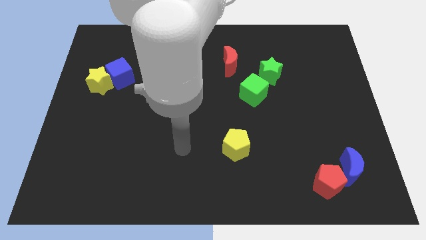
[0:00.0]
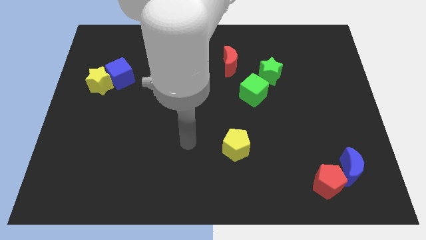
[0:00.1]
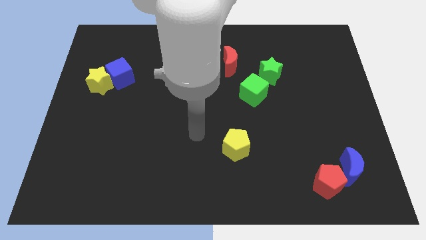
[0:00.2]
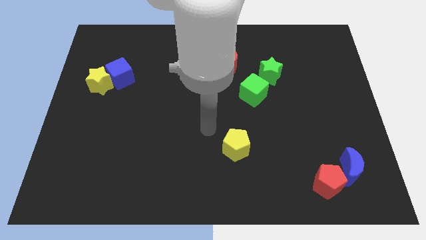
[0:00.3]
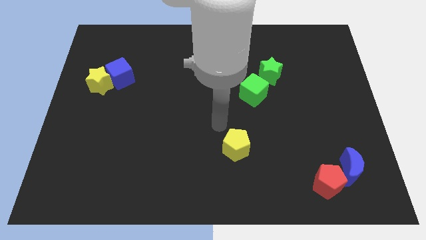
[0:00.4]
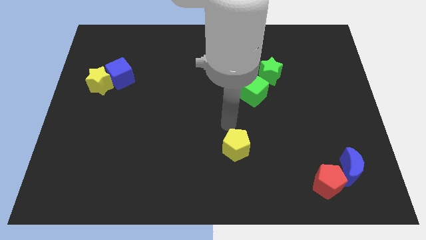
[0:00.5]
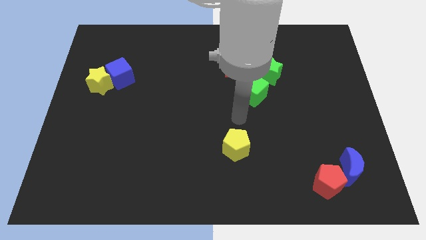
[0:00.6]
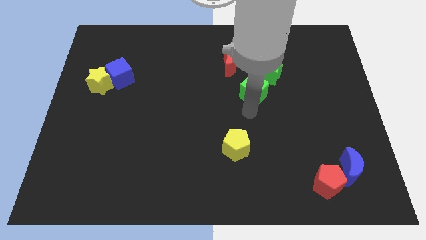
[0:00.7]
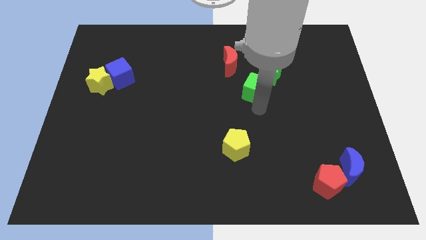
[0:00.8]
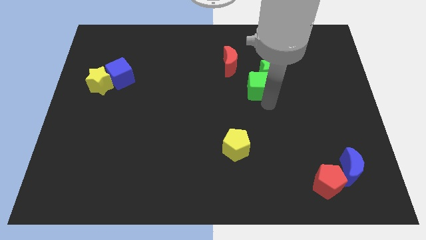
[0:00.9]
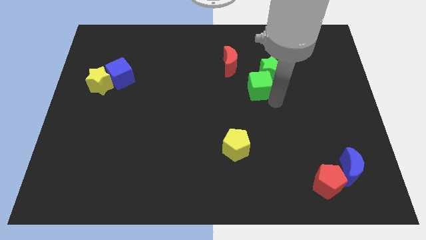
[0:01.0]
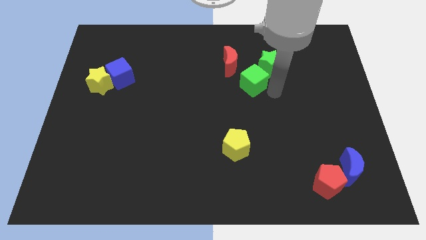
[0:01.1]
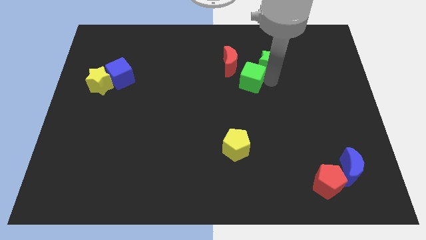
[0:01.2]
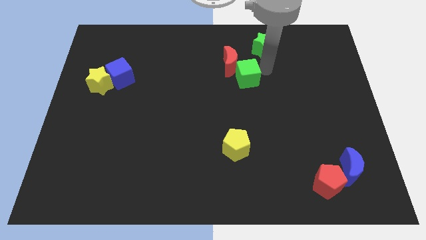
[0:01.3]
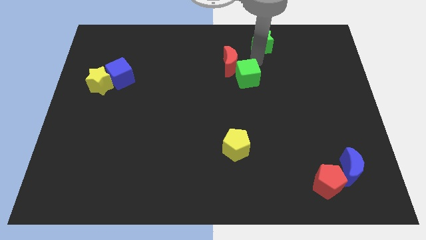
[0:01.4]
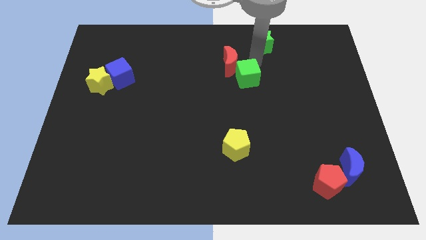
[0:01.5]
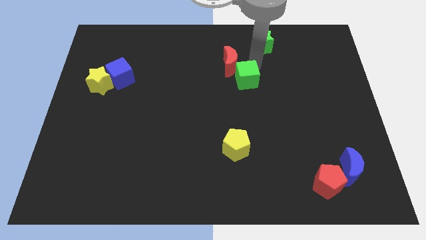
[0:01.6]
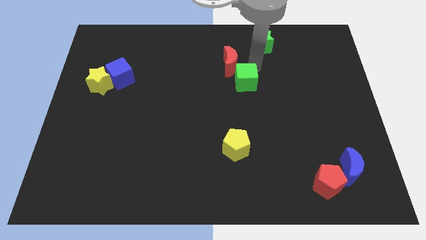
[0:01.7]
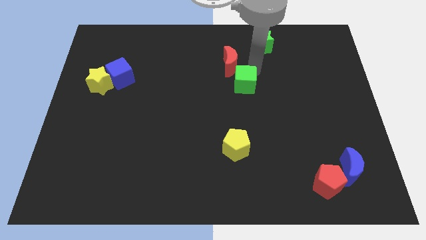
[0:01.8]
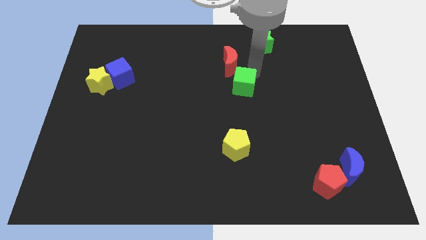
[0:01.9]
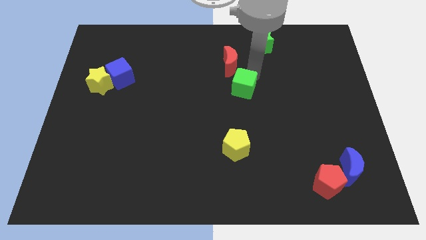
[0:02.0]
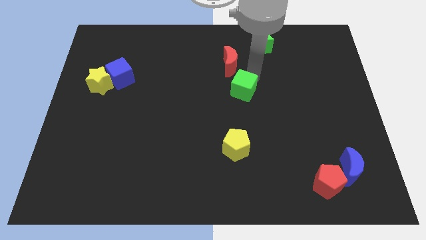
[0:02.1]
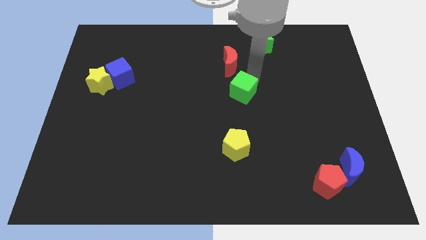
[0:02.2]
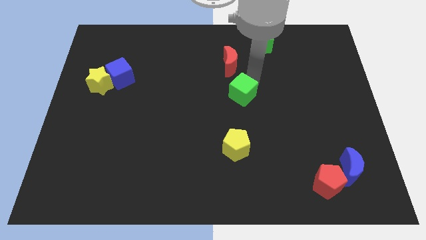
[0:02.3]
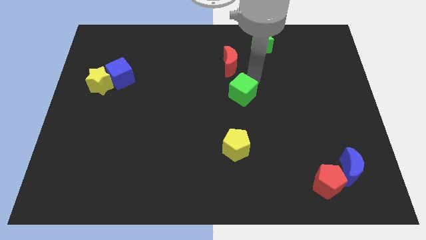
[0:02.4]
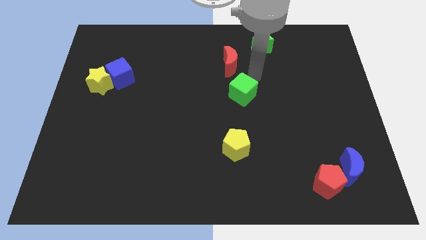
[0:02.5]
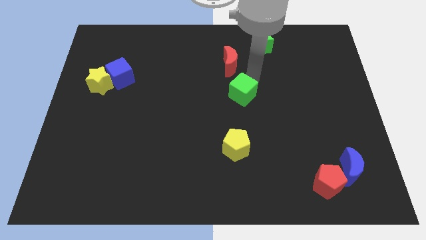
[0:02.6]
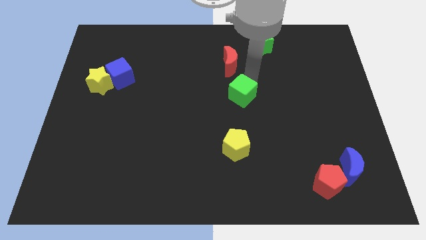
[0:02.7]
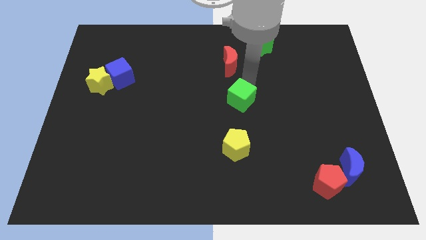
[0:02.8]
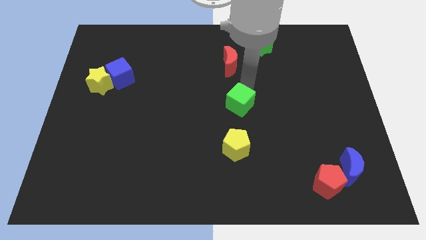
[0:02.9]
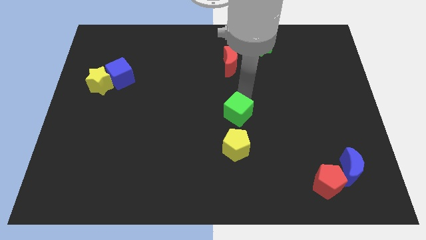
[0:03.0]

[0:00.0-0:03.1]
slightly slide the green cube down and then left

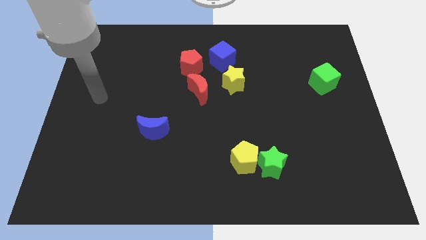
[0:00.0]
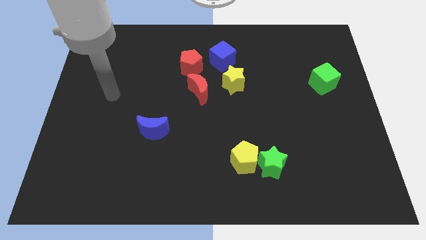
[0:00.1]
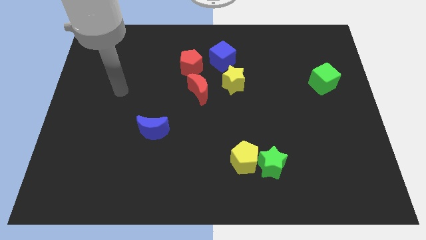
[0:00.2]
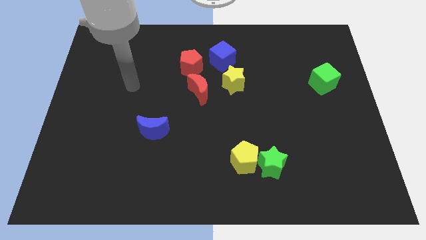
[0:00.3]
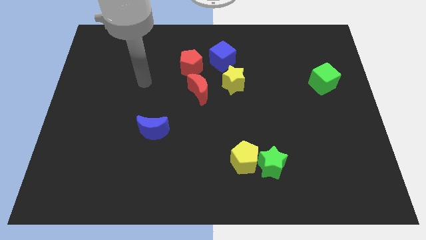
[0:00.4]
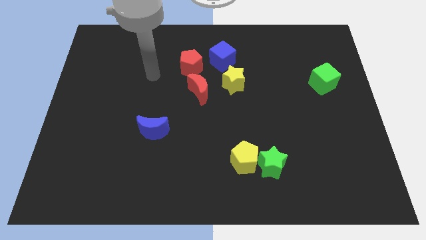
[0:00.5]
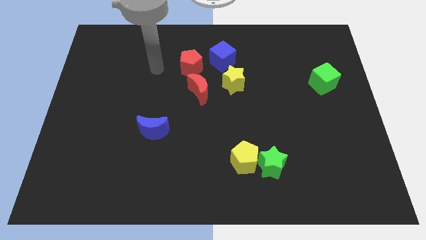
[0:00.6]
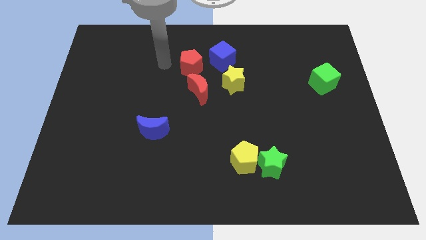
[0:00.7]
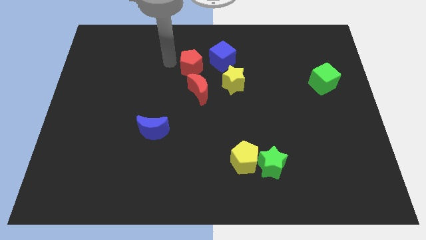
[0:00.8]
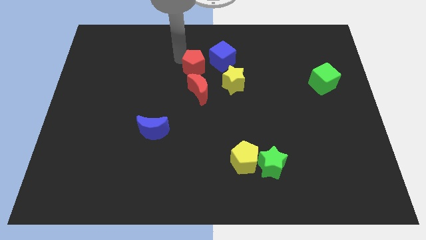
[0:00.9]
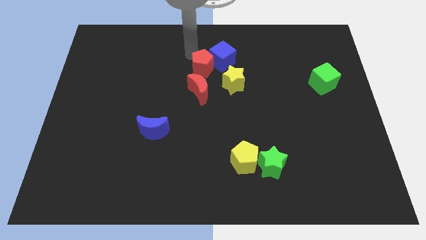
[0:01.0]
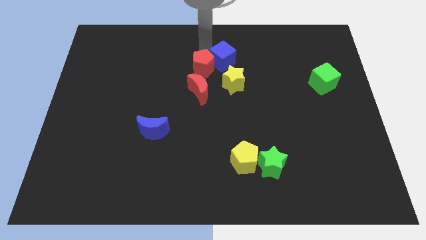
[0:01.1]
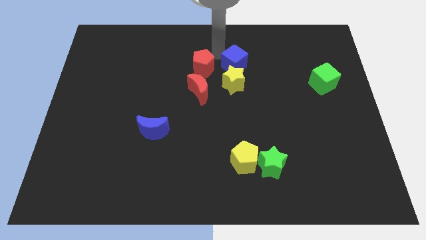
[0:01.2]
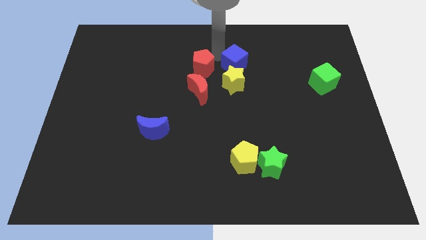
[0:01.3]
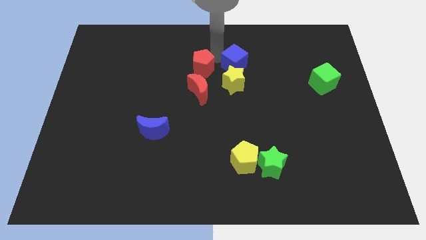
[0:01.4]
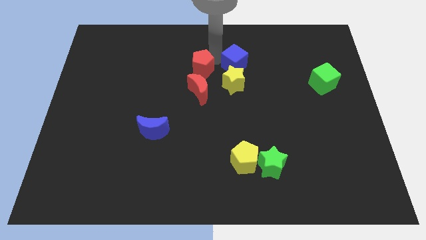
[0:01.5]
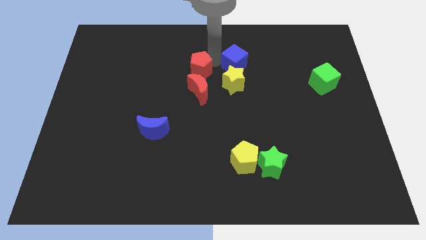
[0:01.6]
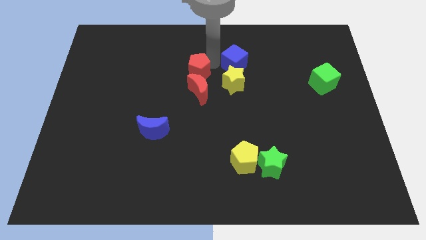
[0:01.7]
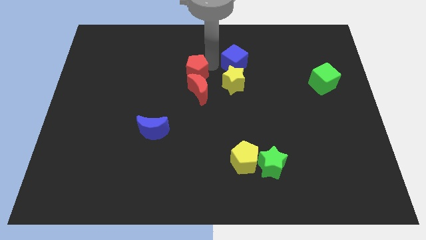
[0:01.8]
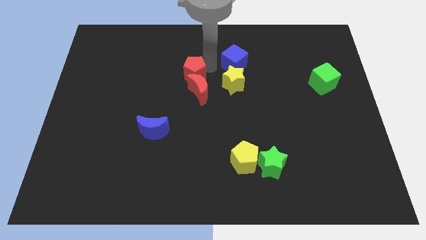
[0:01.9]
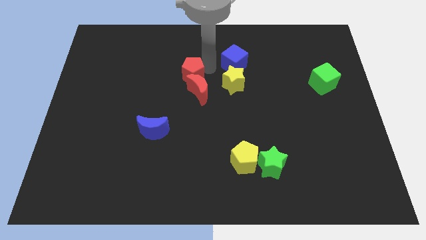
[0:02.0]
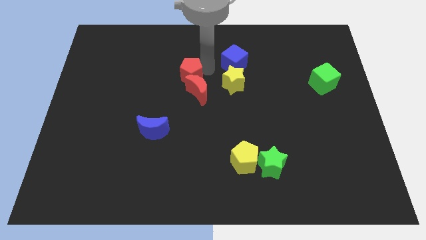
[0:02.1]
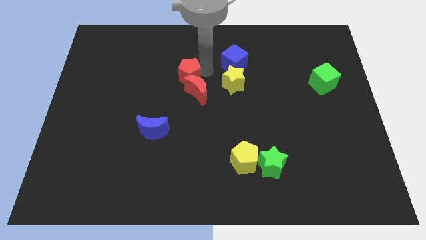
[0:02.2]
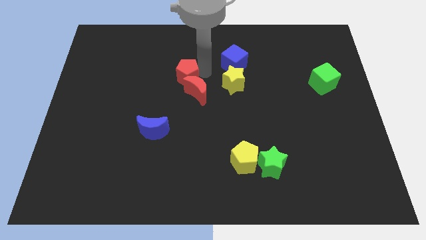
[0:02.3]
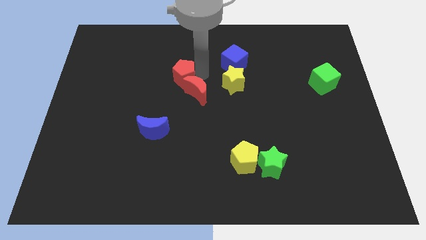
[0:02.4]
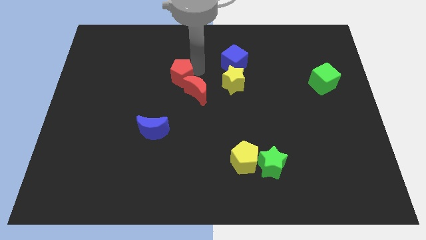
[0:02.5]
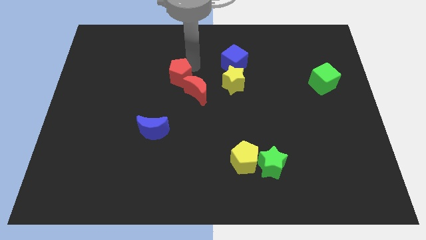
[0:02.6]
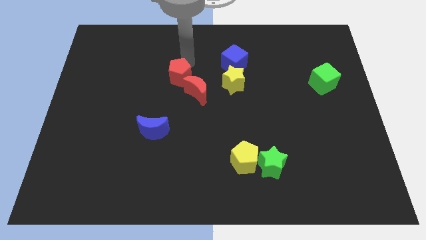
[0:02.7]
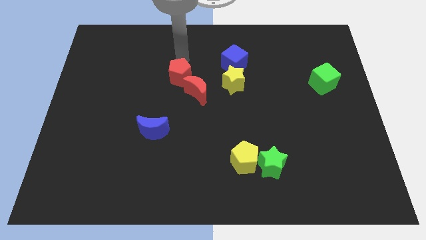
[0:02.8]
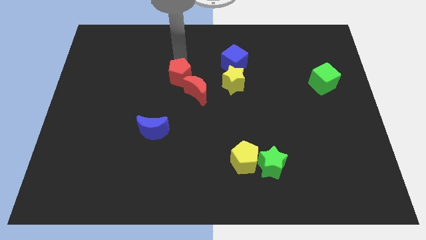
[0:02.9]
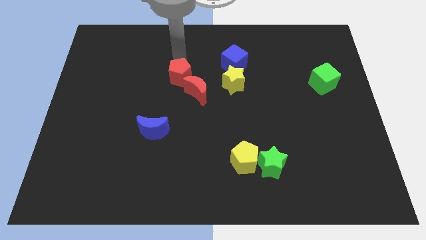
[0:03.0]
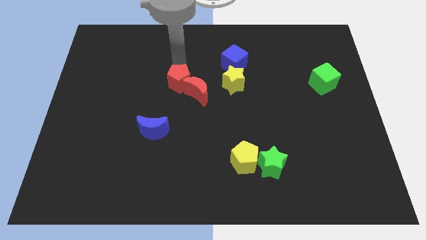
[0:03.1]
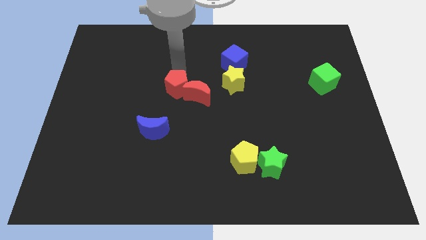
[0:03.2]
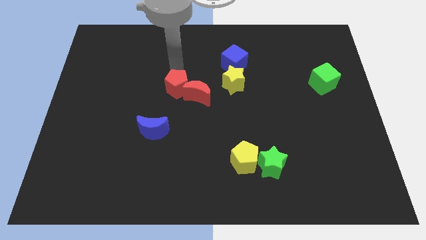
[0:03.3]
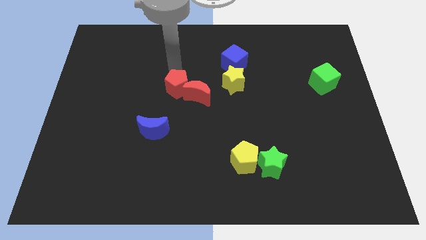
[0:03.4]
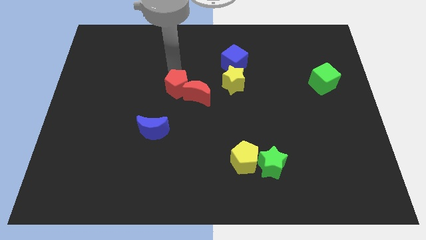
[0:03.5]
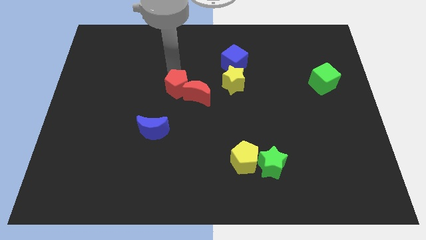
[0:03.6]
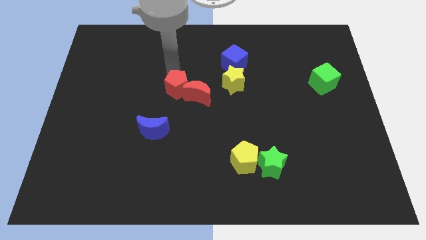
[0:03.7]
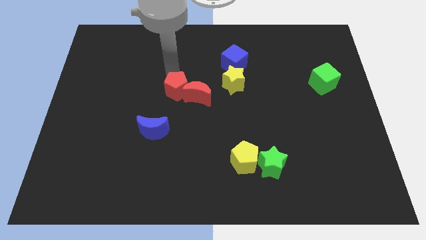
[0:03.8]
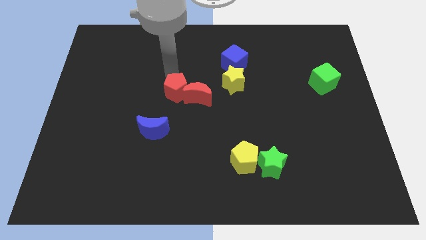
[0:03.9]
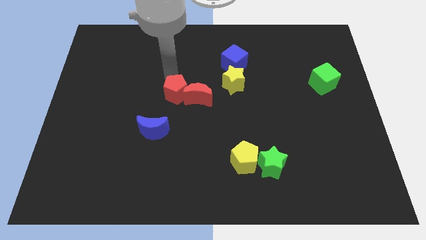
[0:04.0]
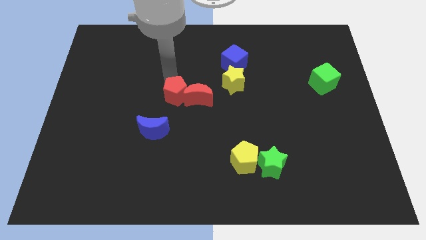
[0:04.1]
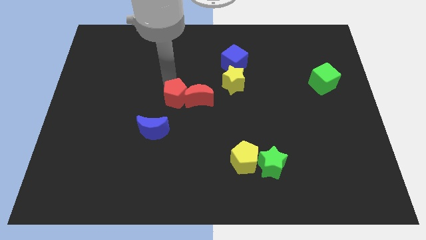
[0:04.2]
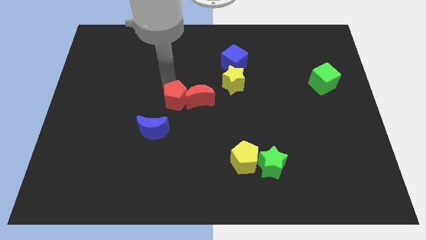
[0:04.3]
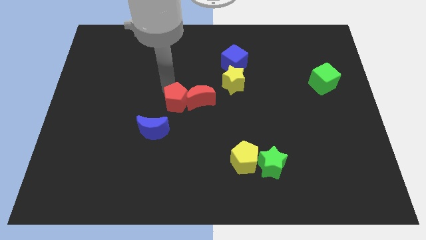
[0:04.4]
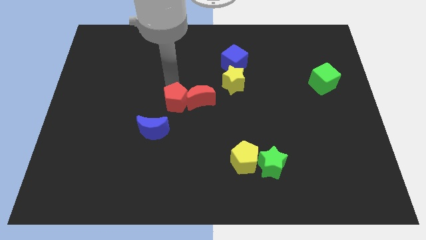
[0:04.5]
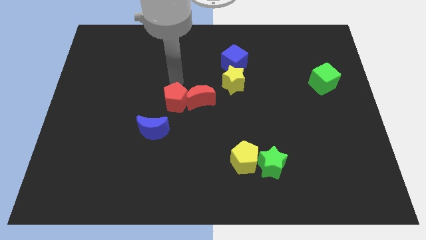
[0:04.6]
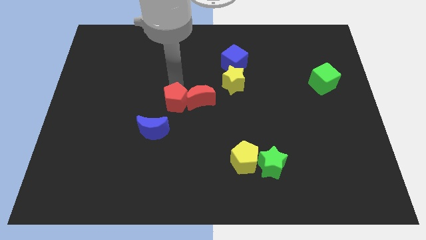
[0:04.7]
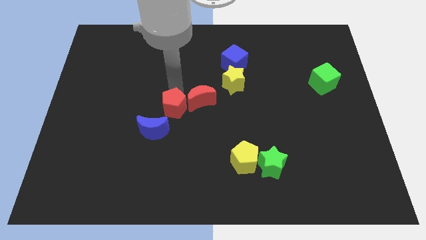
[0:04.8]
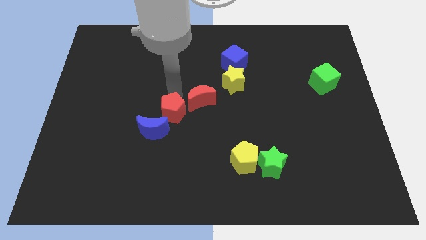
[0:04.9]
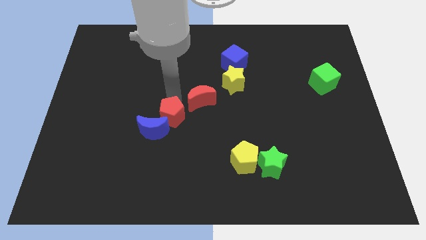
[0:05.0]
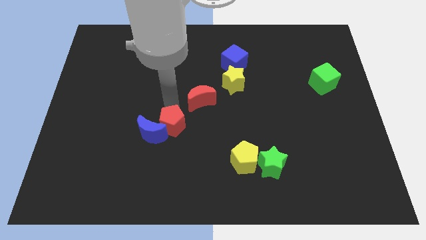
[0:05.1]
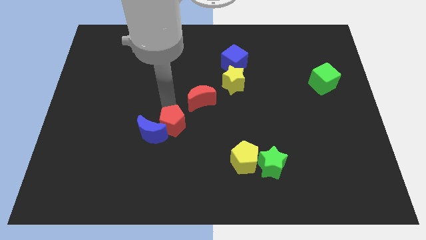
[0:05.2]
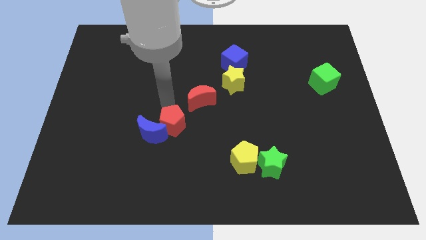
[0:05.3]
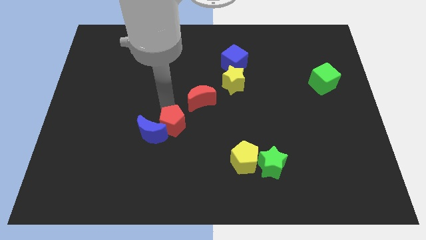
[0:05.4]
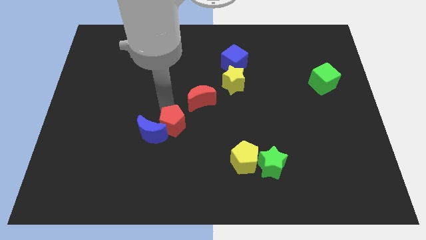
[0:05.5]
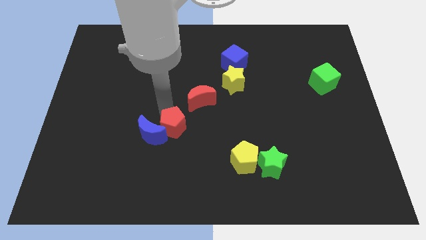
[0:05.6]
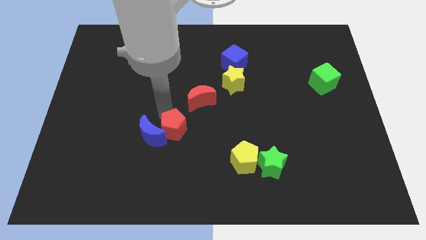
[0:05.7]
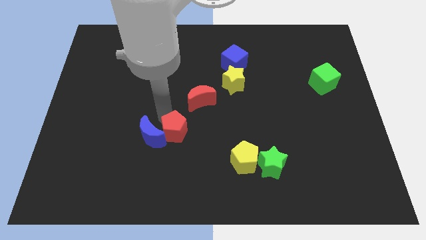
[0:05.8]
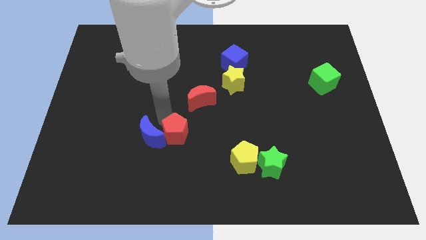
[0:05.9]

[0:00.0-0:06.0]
push the red pentagon down
